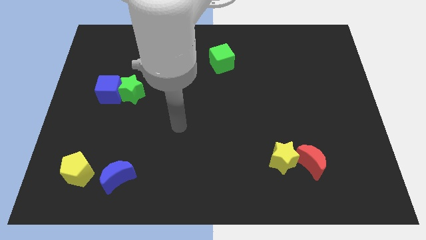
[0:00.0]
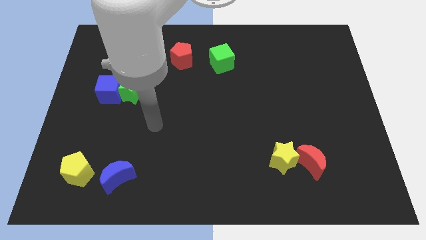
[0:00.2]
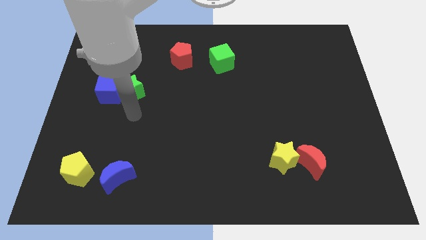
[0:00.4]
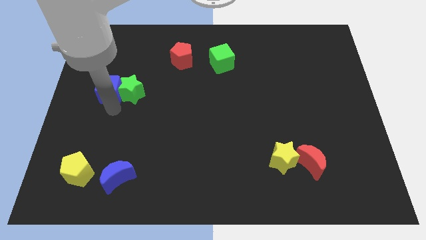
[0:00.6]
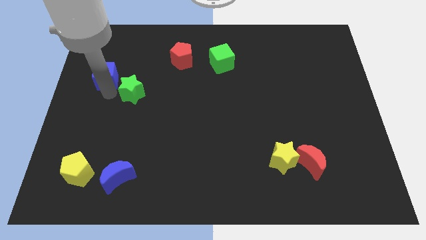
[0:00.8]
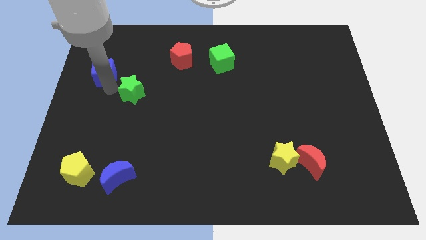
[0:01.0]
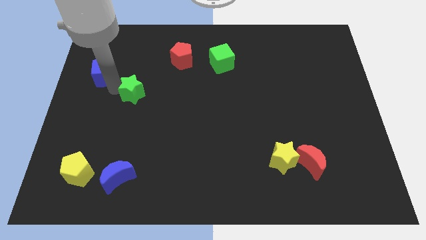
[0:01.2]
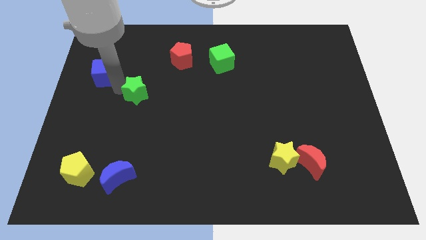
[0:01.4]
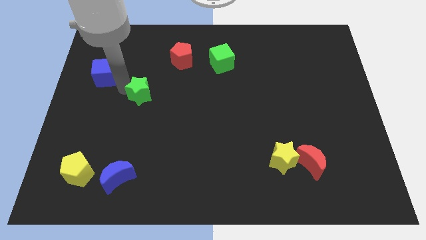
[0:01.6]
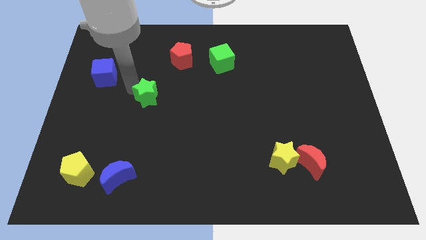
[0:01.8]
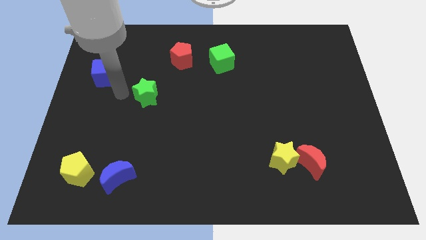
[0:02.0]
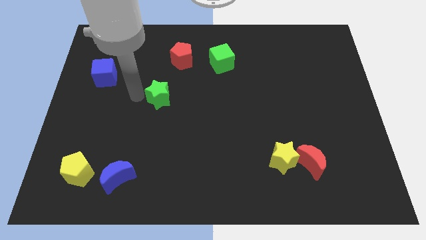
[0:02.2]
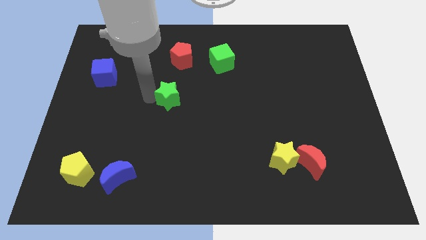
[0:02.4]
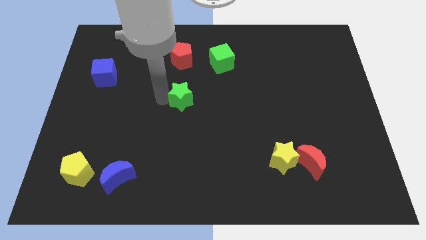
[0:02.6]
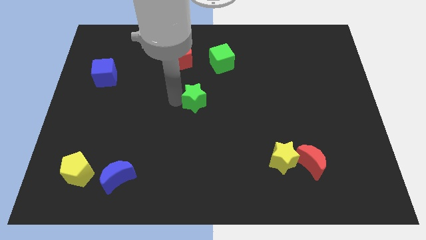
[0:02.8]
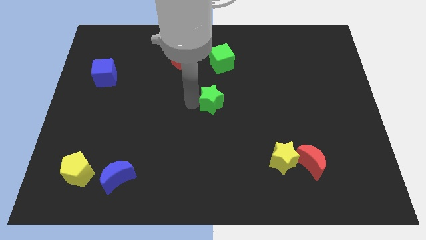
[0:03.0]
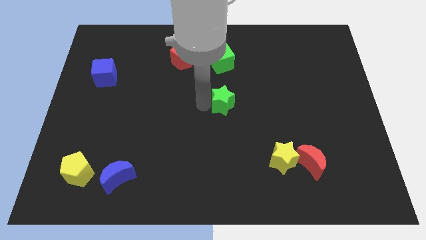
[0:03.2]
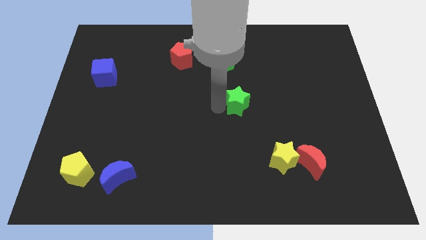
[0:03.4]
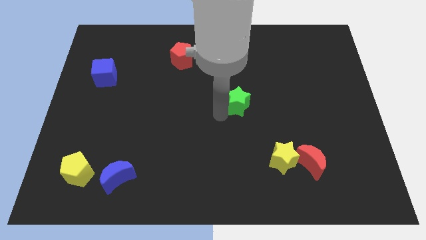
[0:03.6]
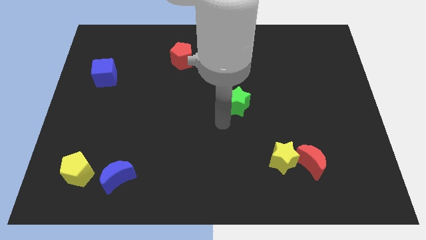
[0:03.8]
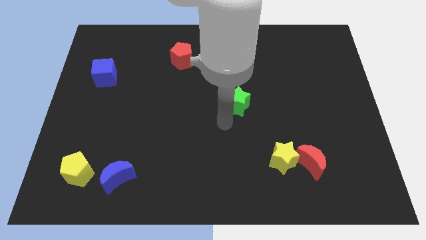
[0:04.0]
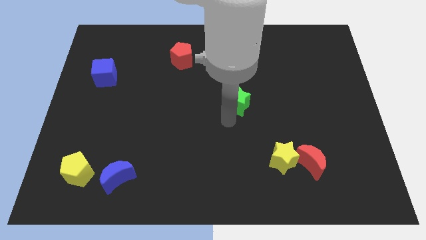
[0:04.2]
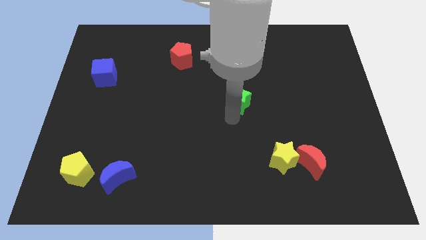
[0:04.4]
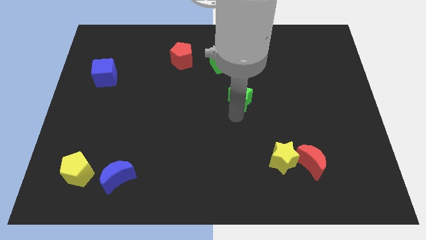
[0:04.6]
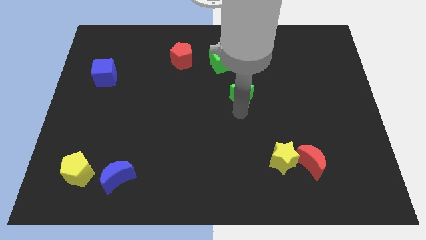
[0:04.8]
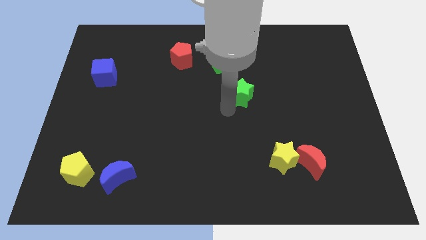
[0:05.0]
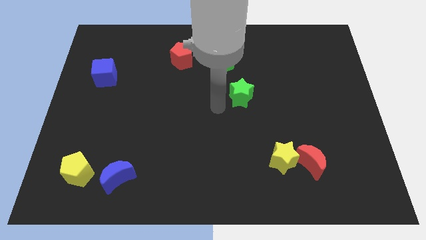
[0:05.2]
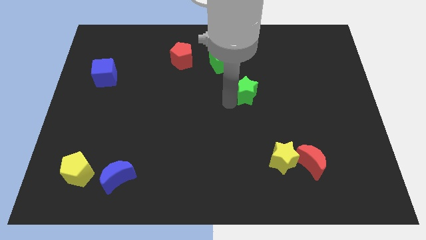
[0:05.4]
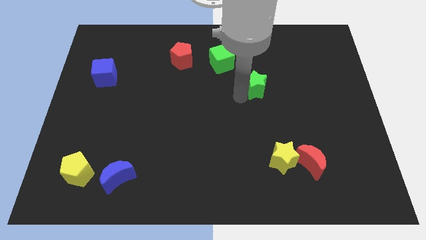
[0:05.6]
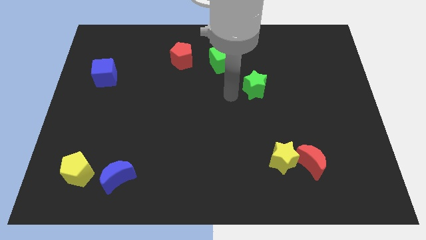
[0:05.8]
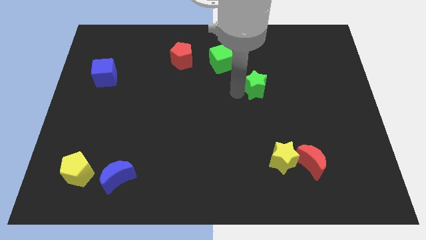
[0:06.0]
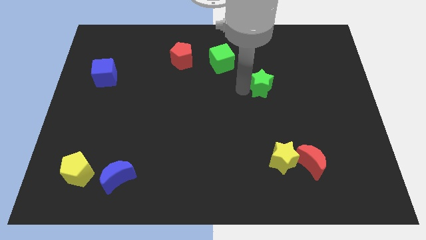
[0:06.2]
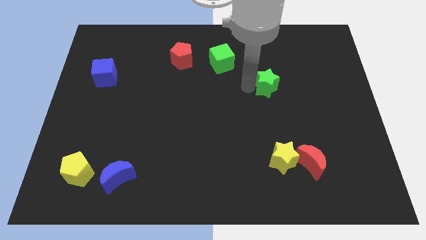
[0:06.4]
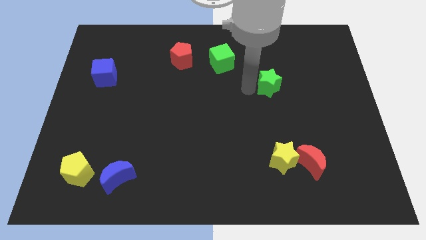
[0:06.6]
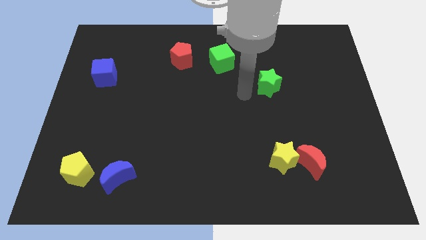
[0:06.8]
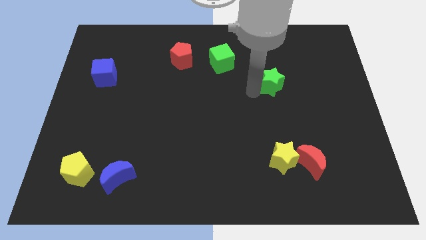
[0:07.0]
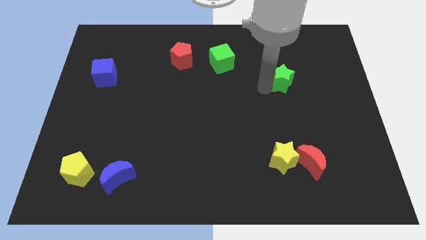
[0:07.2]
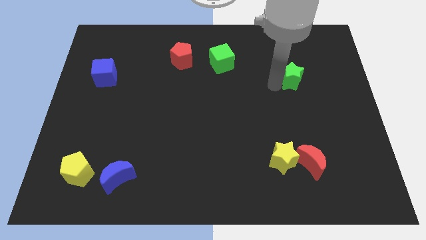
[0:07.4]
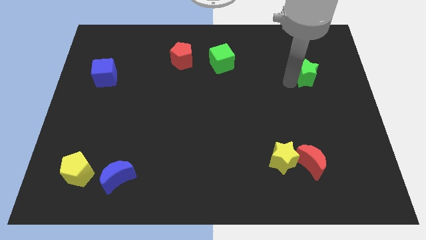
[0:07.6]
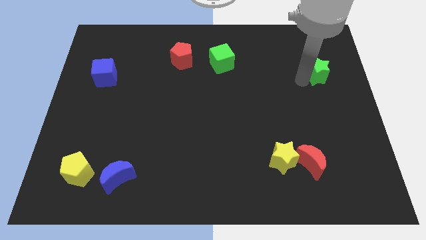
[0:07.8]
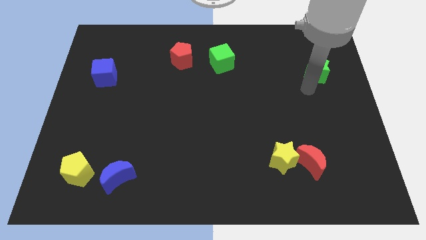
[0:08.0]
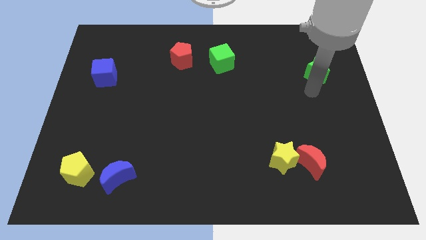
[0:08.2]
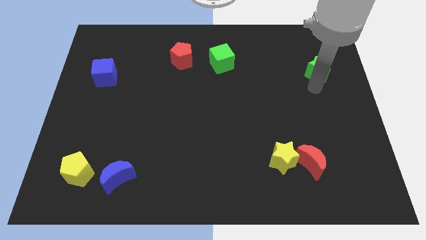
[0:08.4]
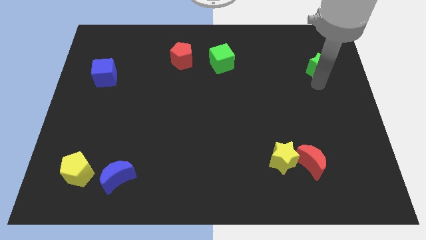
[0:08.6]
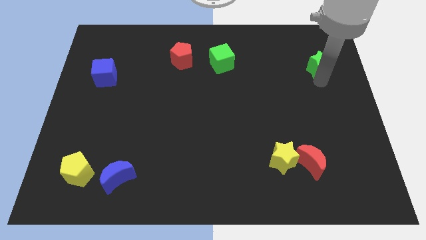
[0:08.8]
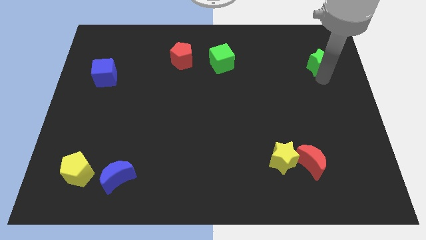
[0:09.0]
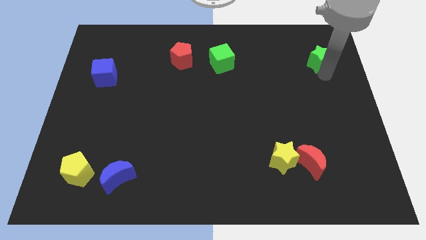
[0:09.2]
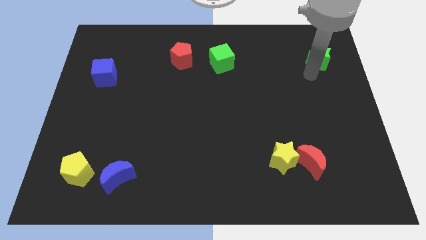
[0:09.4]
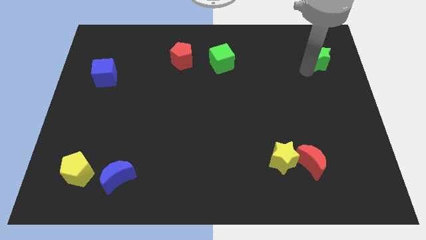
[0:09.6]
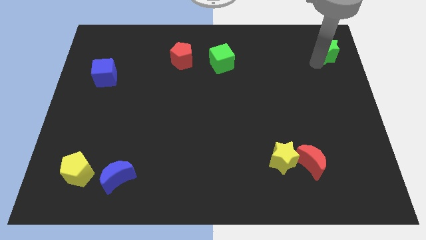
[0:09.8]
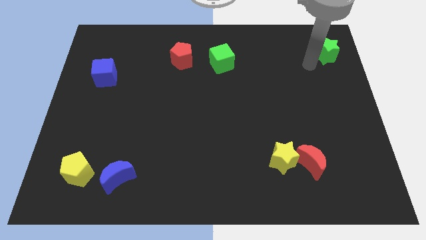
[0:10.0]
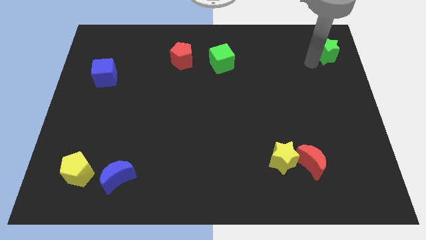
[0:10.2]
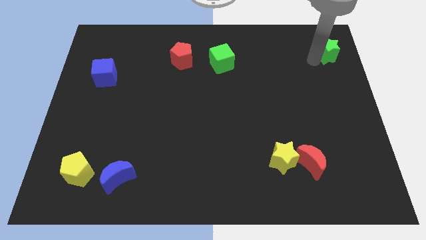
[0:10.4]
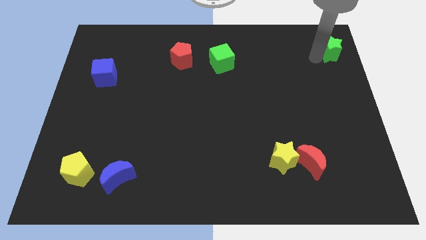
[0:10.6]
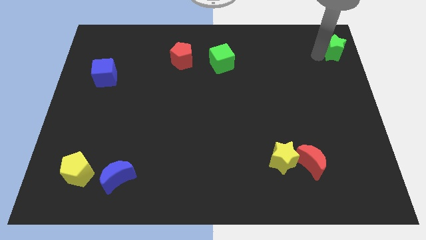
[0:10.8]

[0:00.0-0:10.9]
put the green star to the top right of the board

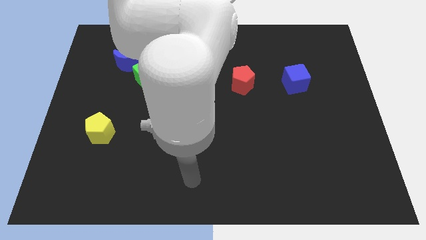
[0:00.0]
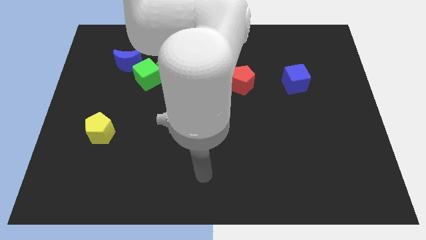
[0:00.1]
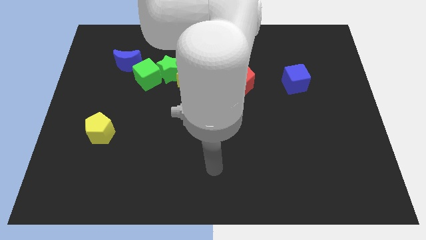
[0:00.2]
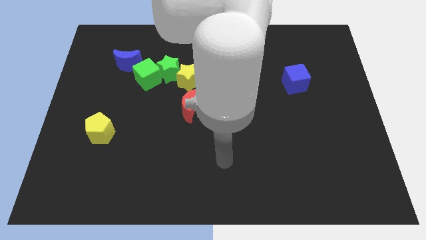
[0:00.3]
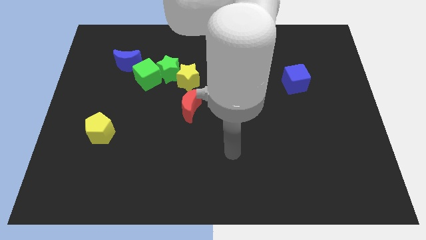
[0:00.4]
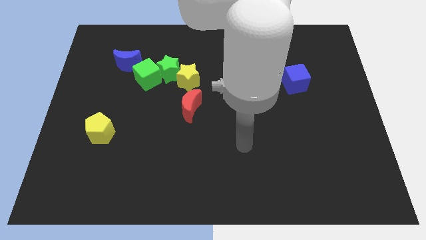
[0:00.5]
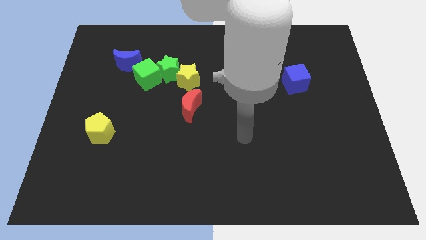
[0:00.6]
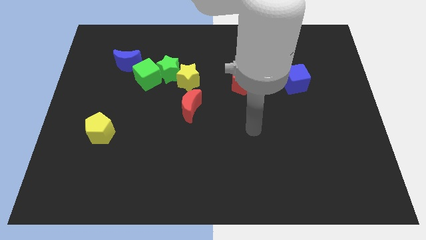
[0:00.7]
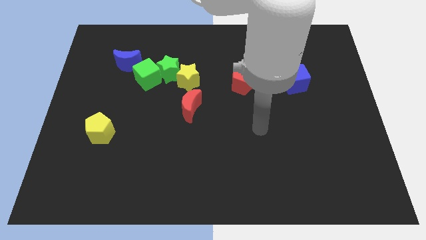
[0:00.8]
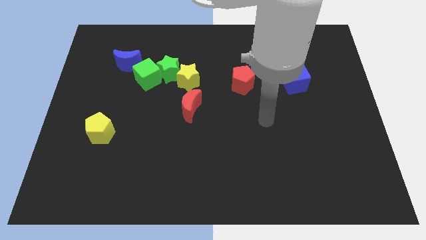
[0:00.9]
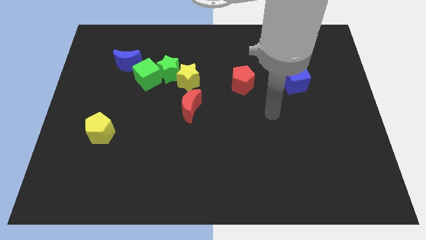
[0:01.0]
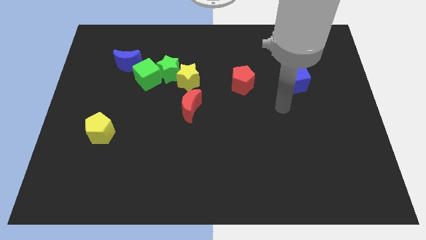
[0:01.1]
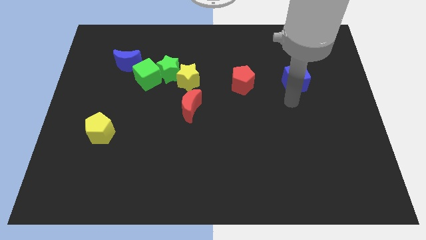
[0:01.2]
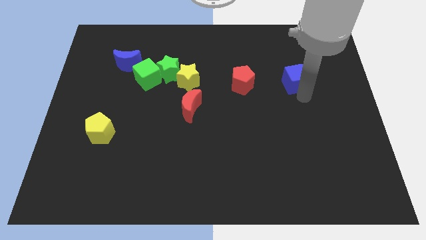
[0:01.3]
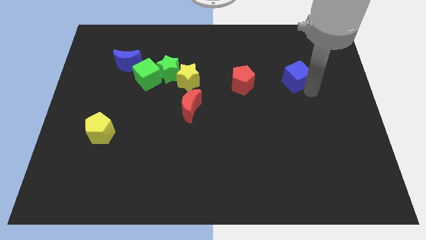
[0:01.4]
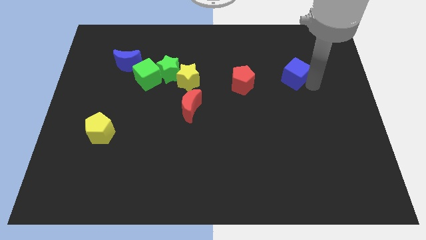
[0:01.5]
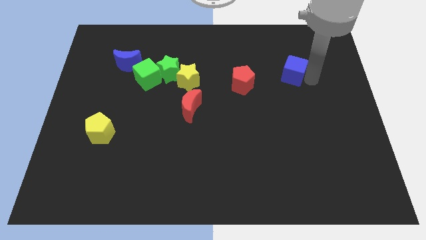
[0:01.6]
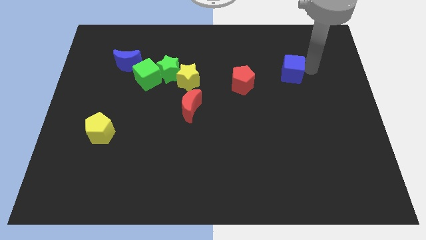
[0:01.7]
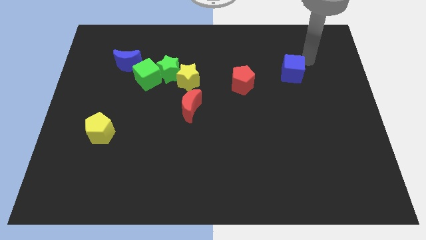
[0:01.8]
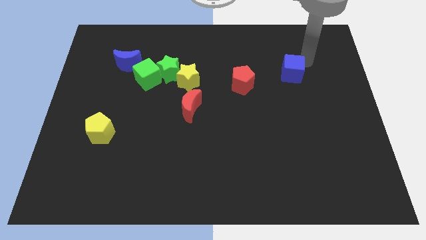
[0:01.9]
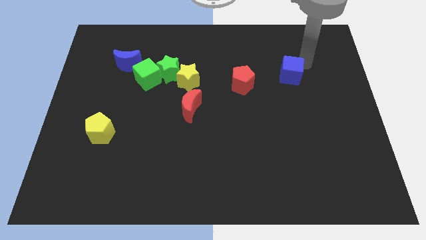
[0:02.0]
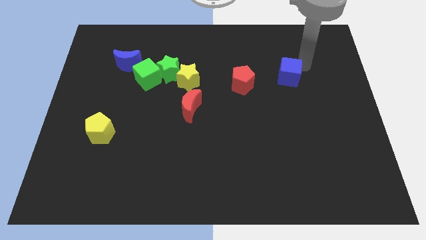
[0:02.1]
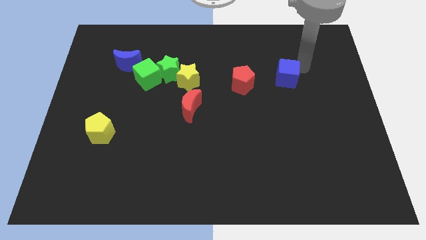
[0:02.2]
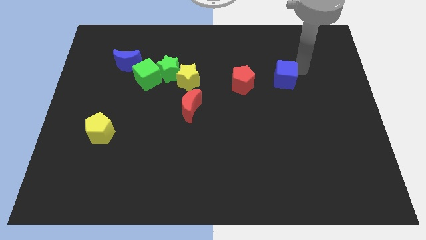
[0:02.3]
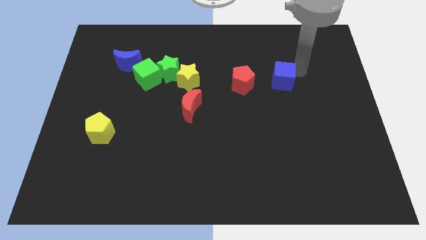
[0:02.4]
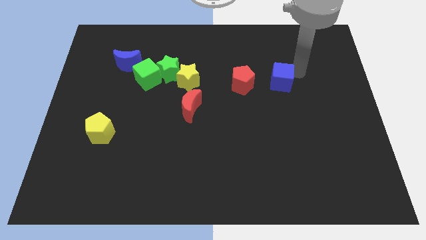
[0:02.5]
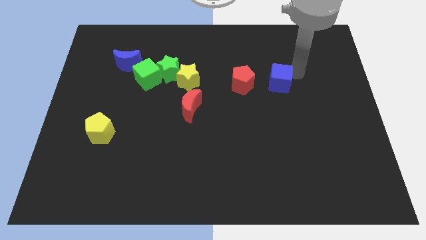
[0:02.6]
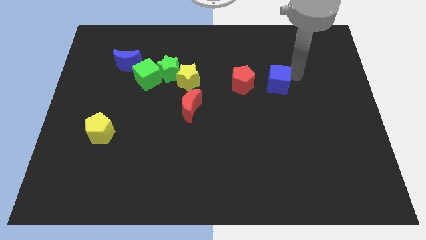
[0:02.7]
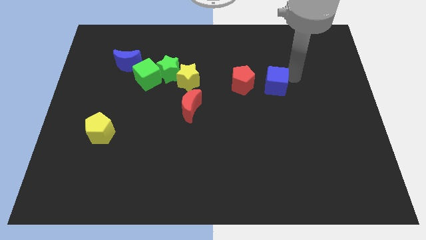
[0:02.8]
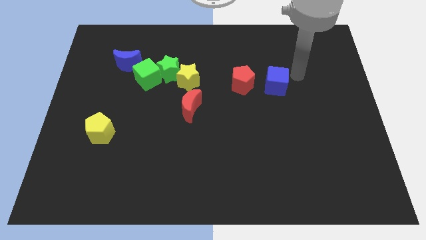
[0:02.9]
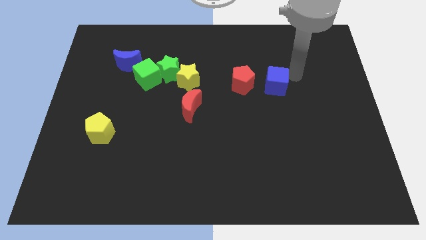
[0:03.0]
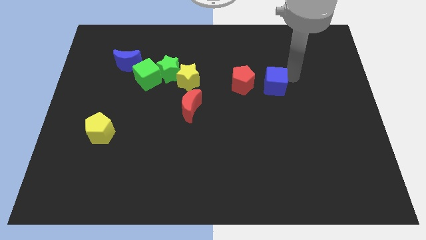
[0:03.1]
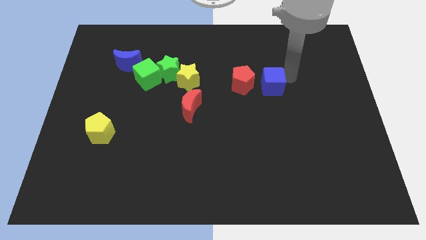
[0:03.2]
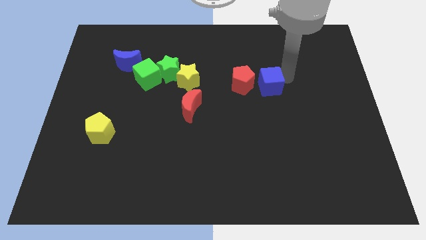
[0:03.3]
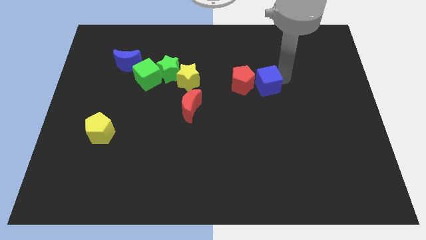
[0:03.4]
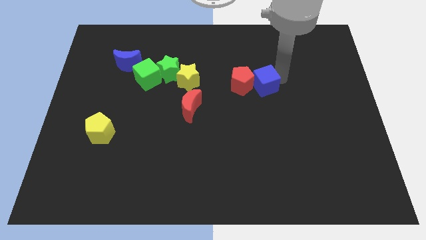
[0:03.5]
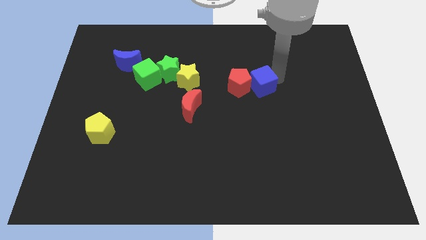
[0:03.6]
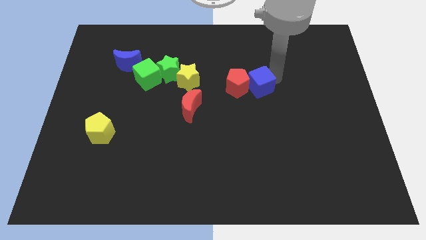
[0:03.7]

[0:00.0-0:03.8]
push the blue cube to the middle of the board
